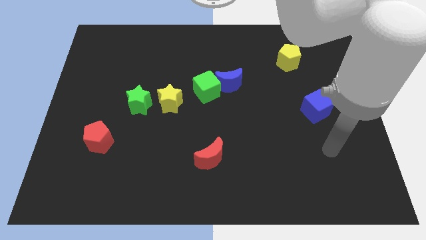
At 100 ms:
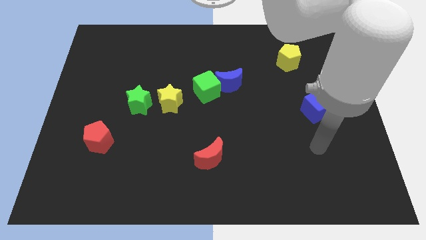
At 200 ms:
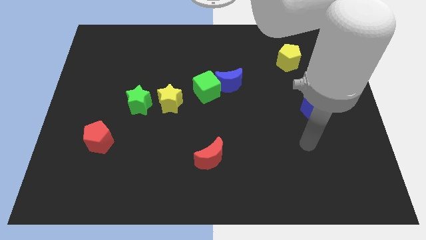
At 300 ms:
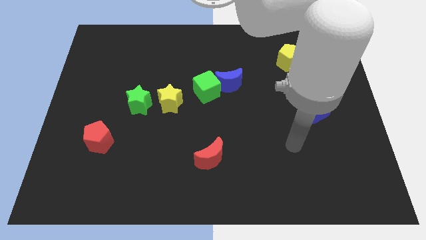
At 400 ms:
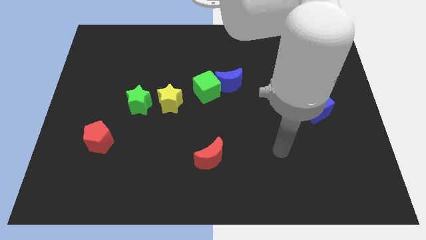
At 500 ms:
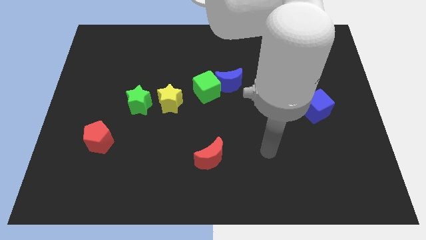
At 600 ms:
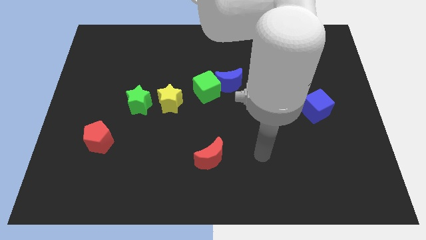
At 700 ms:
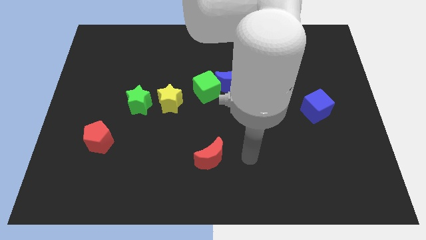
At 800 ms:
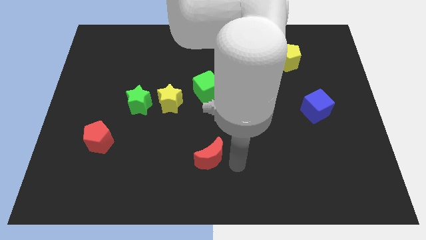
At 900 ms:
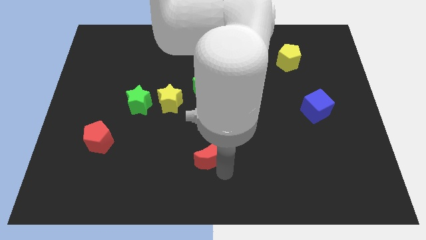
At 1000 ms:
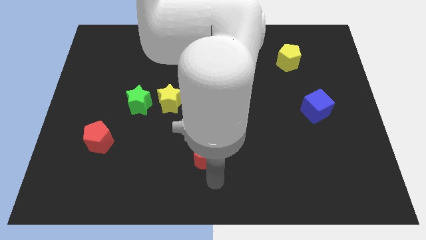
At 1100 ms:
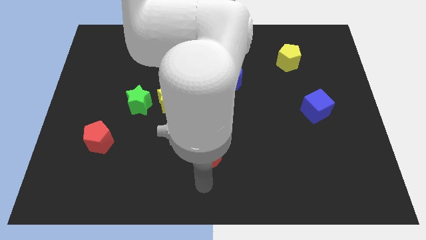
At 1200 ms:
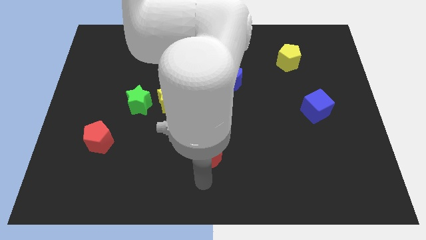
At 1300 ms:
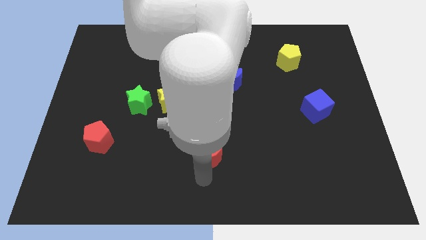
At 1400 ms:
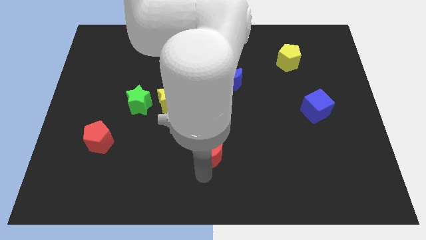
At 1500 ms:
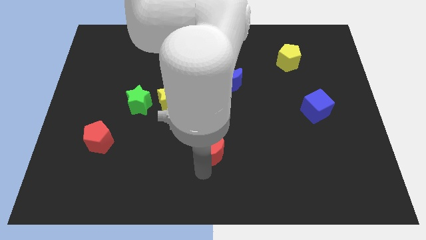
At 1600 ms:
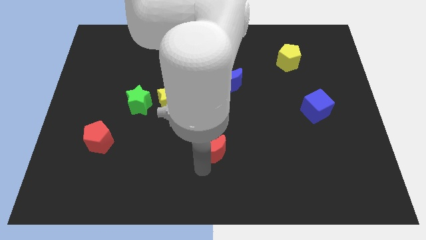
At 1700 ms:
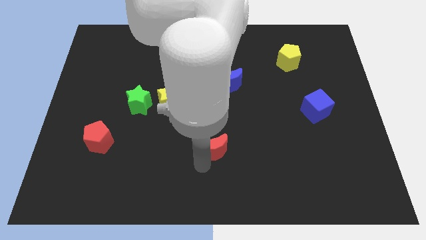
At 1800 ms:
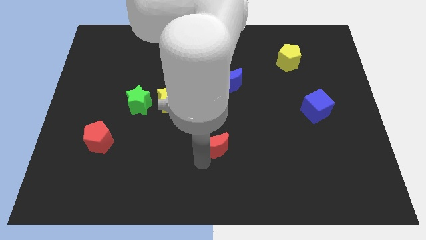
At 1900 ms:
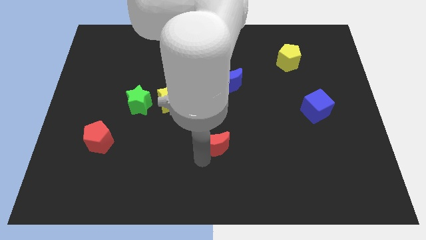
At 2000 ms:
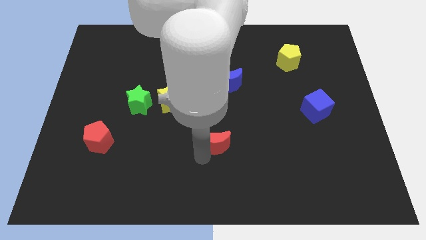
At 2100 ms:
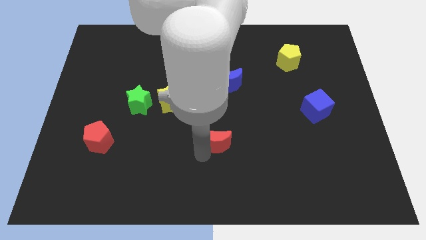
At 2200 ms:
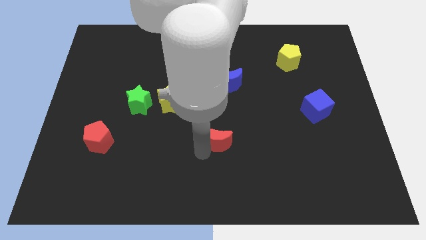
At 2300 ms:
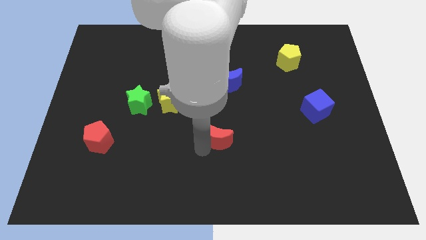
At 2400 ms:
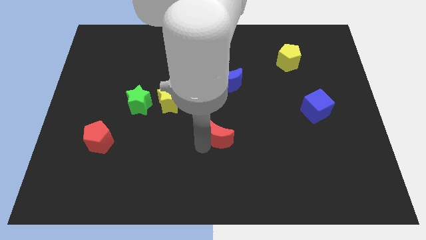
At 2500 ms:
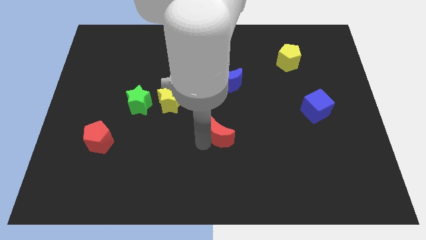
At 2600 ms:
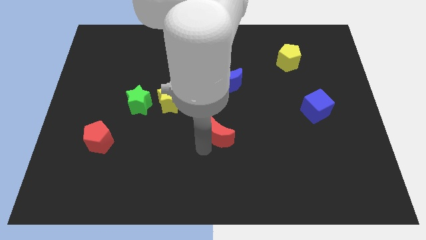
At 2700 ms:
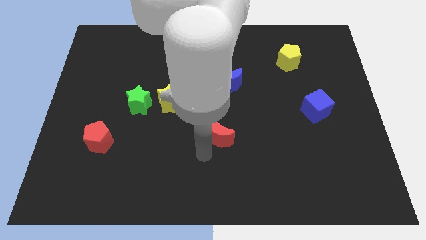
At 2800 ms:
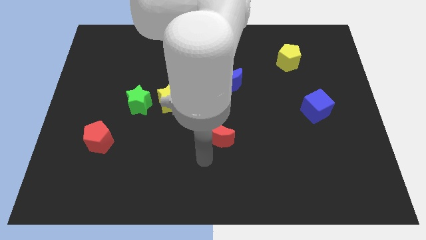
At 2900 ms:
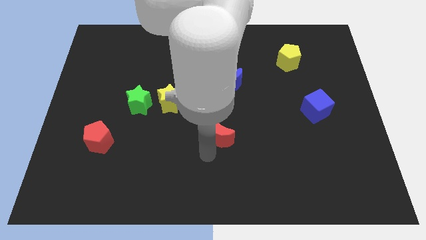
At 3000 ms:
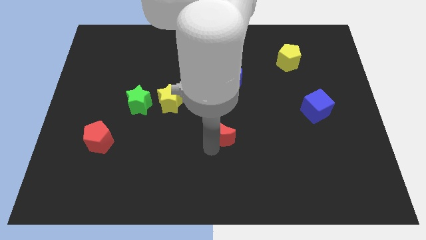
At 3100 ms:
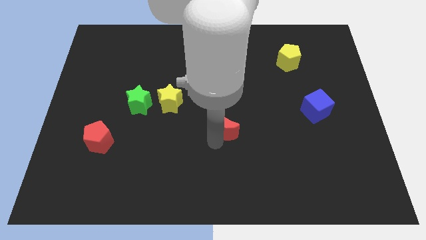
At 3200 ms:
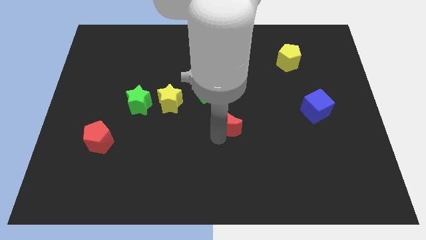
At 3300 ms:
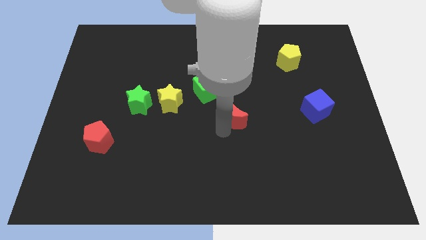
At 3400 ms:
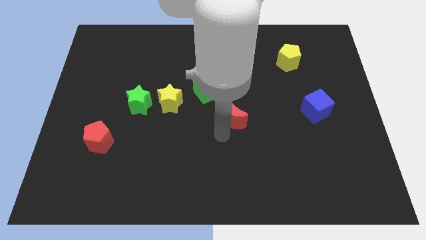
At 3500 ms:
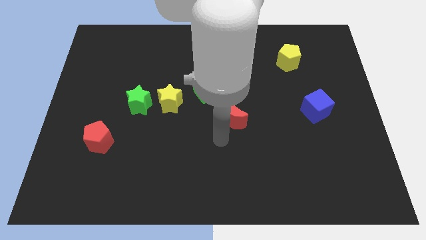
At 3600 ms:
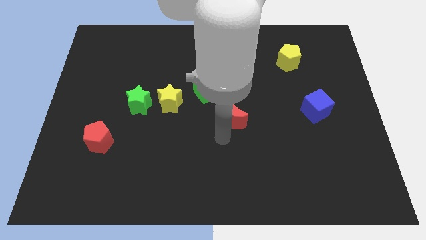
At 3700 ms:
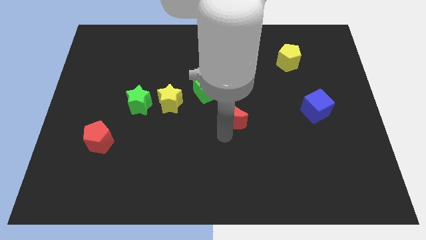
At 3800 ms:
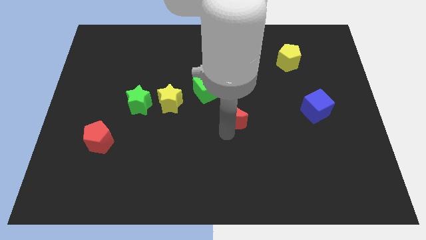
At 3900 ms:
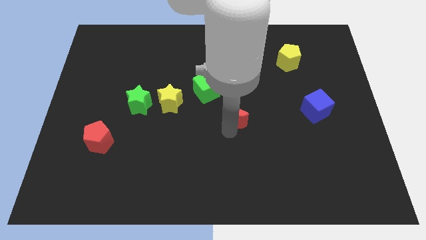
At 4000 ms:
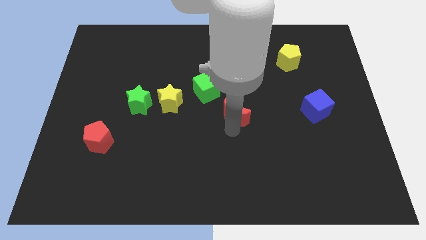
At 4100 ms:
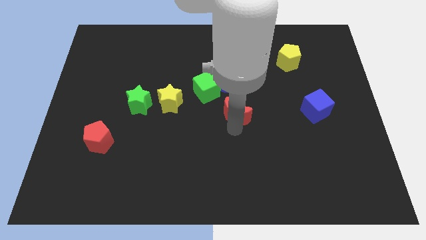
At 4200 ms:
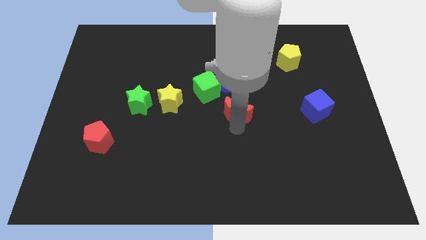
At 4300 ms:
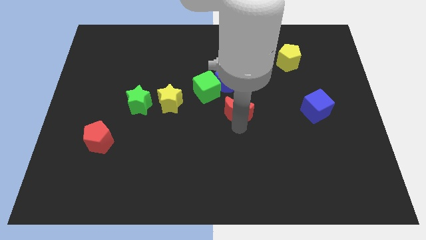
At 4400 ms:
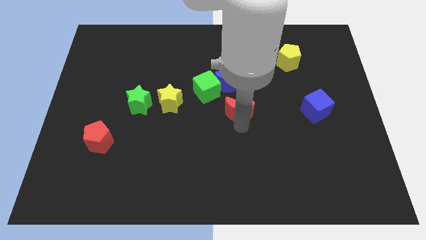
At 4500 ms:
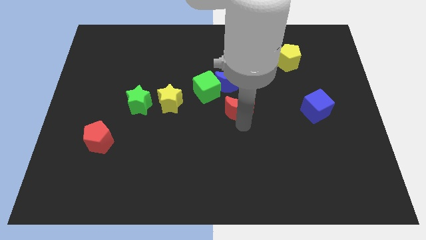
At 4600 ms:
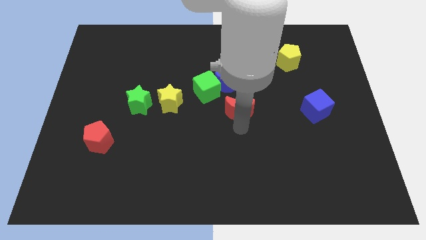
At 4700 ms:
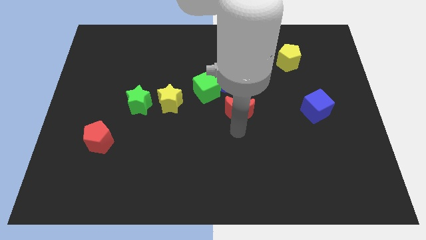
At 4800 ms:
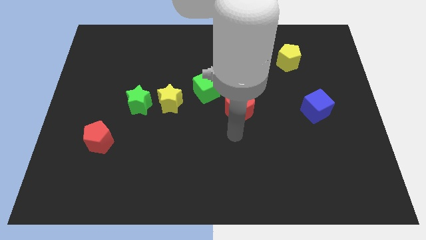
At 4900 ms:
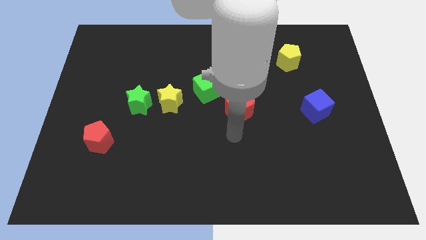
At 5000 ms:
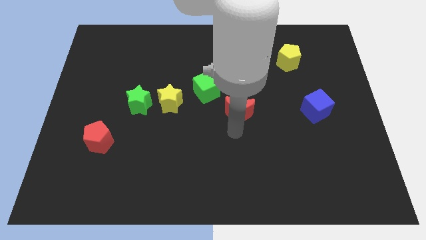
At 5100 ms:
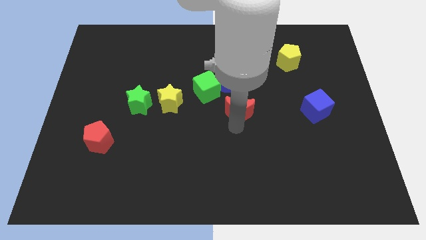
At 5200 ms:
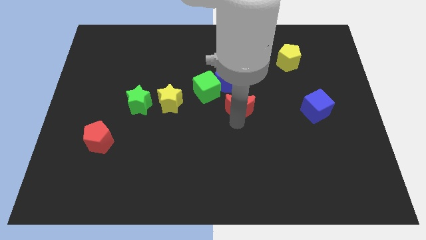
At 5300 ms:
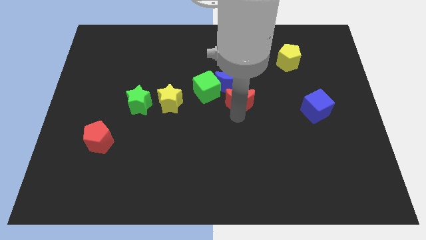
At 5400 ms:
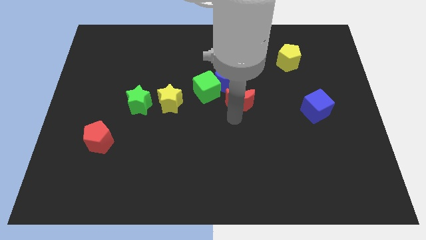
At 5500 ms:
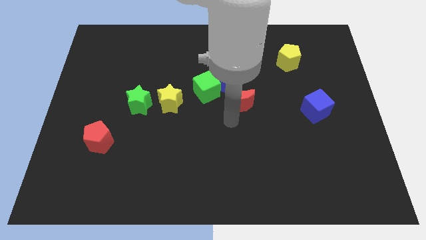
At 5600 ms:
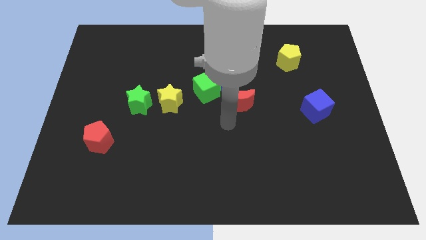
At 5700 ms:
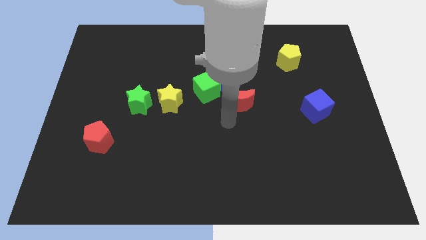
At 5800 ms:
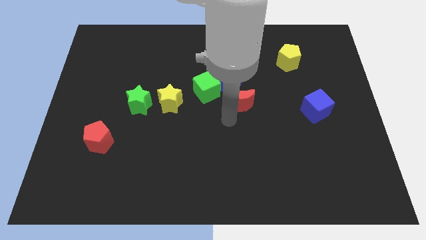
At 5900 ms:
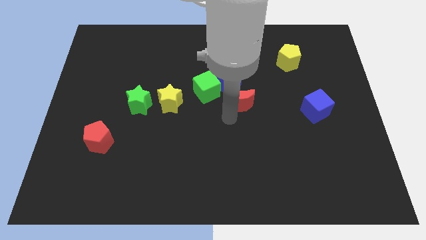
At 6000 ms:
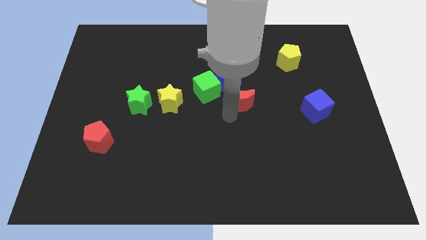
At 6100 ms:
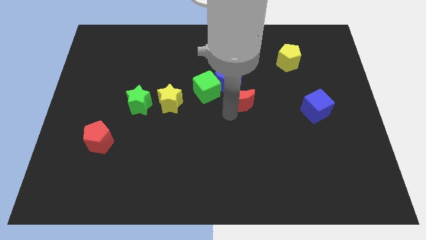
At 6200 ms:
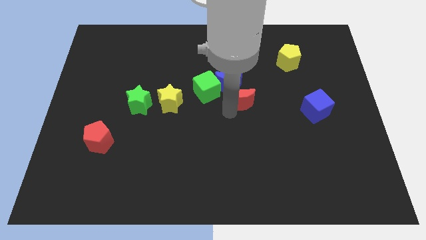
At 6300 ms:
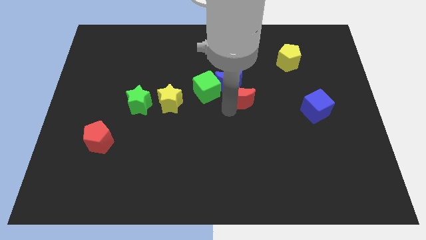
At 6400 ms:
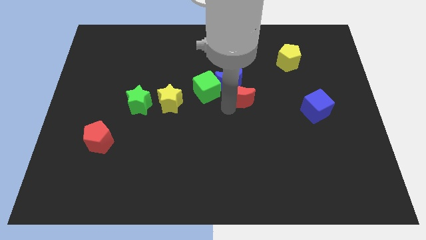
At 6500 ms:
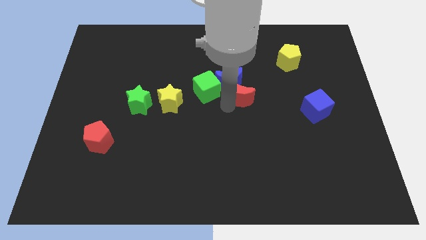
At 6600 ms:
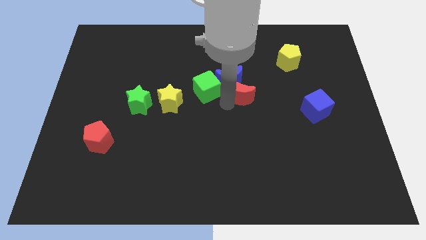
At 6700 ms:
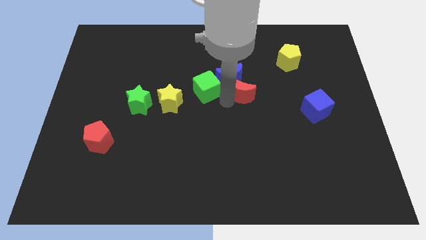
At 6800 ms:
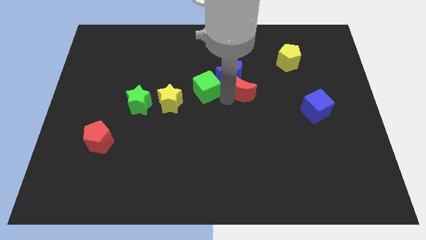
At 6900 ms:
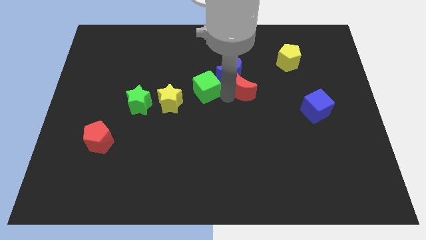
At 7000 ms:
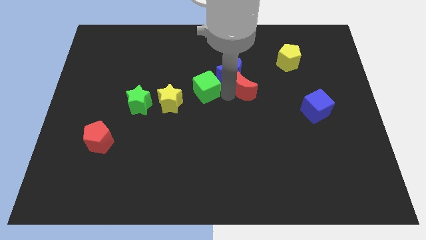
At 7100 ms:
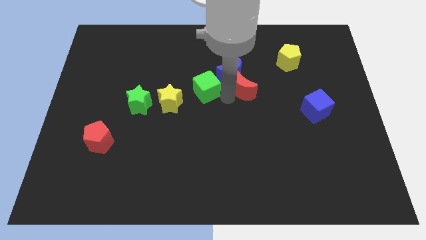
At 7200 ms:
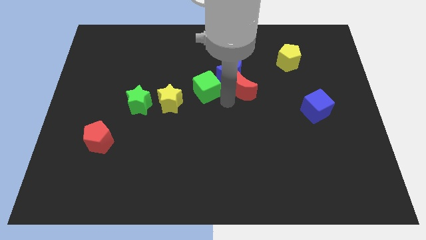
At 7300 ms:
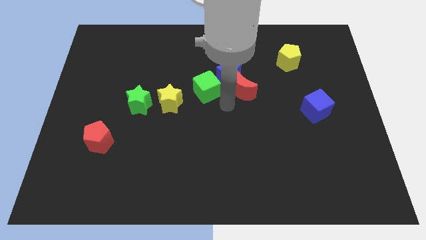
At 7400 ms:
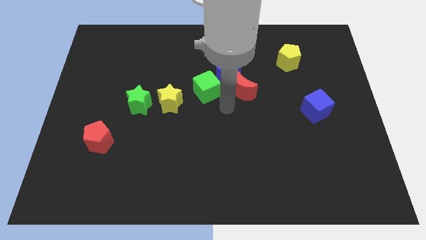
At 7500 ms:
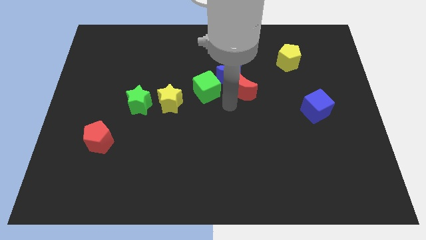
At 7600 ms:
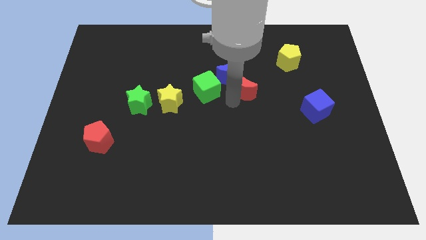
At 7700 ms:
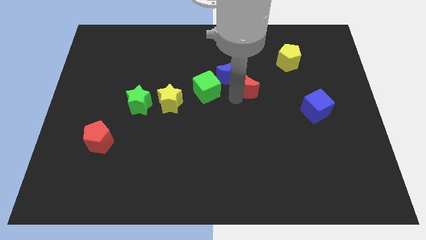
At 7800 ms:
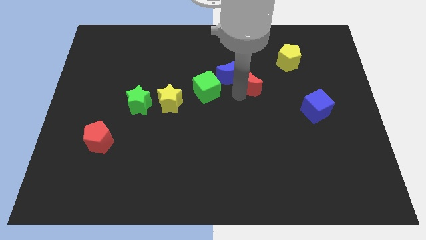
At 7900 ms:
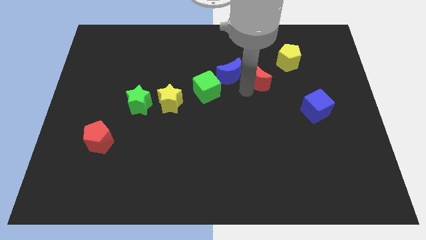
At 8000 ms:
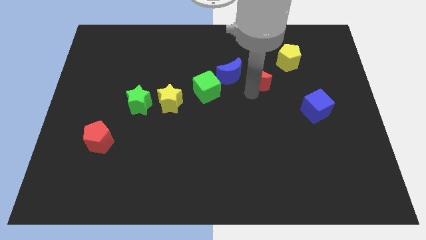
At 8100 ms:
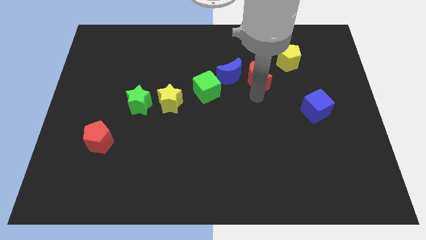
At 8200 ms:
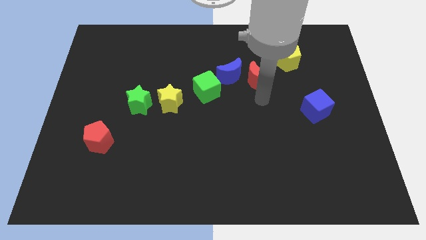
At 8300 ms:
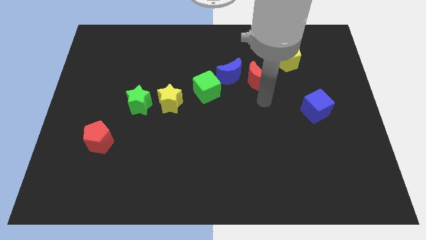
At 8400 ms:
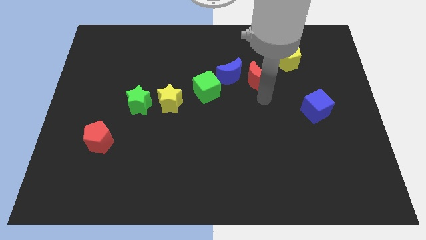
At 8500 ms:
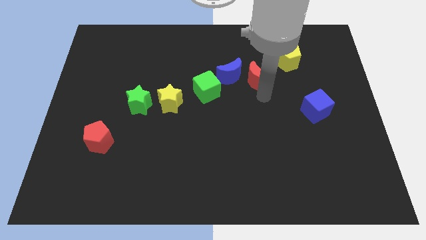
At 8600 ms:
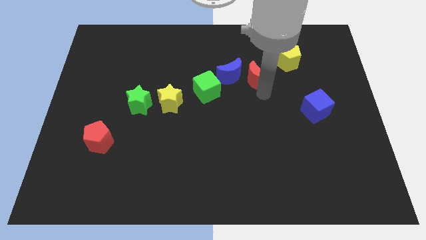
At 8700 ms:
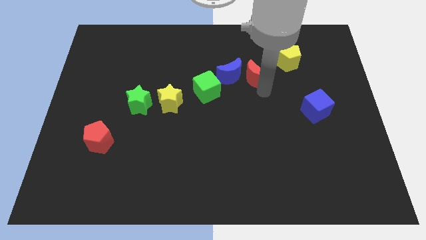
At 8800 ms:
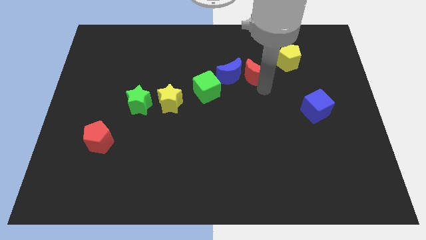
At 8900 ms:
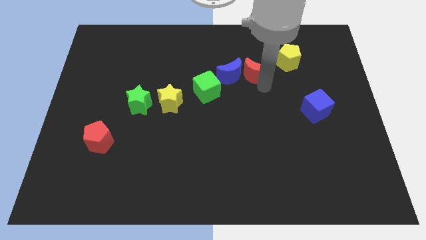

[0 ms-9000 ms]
put the red moon just left of the yellow pentagon
